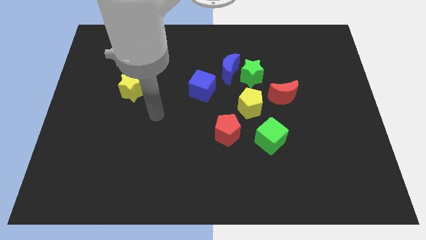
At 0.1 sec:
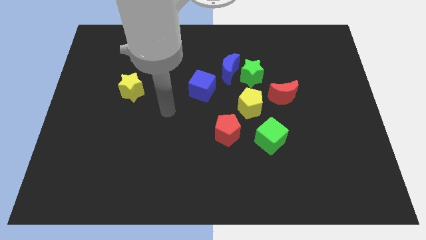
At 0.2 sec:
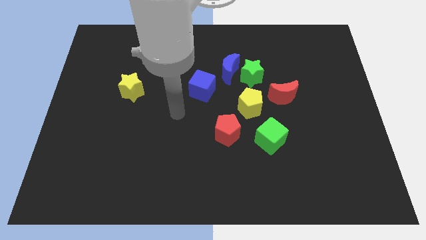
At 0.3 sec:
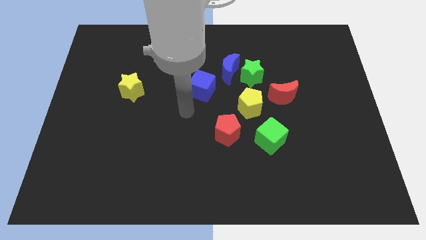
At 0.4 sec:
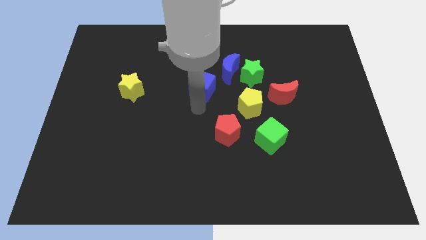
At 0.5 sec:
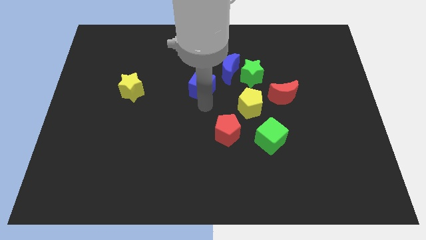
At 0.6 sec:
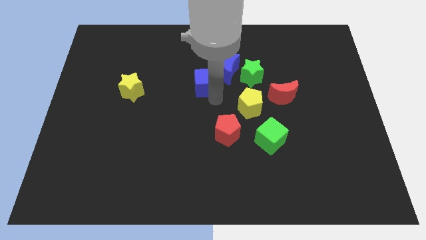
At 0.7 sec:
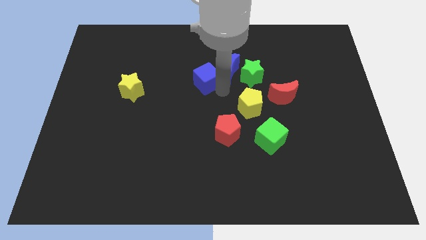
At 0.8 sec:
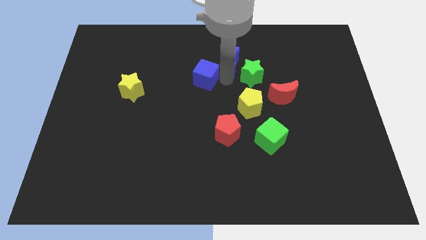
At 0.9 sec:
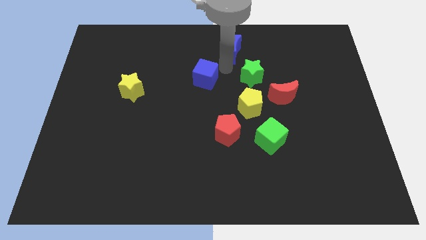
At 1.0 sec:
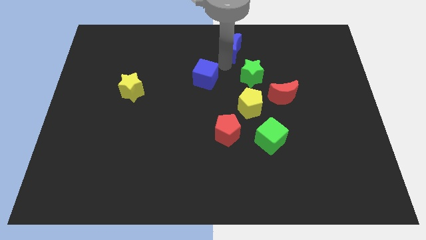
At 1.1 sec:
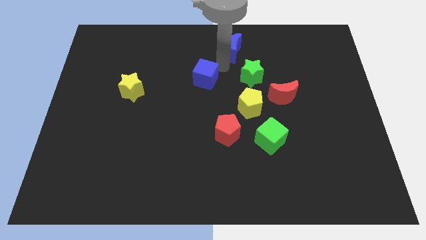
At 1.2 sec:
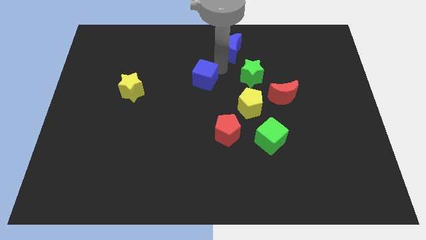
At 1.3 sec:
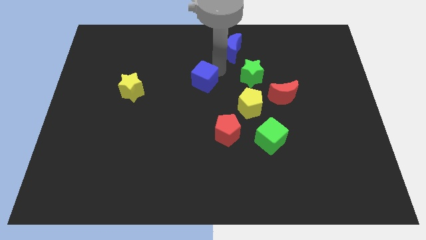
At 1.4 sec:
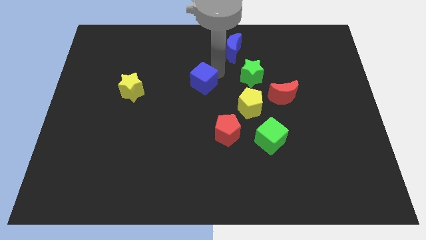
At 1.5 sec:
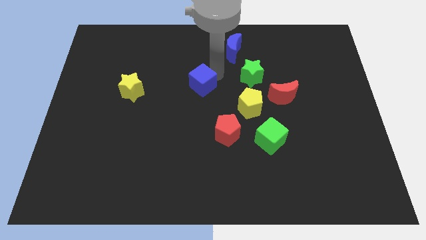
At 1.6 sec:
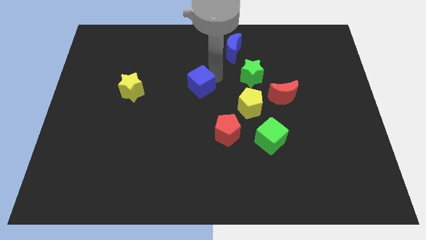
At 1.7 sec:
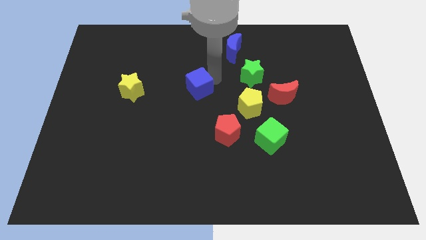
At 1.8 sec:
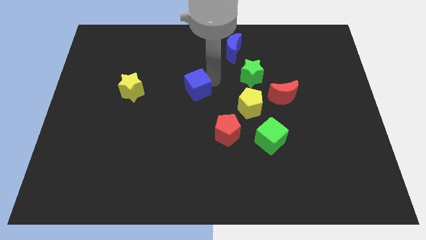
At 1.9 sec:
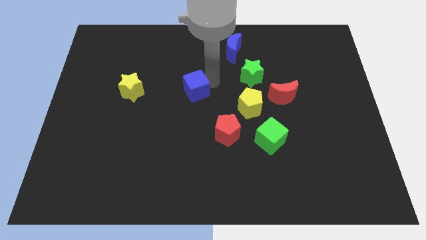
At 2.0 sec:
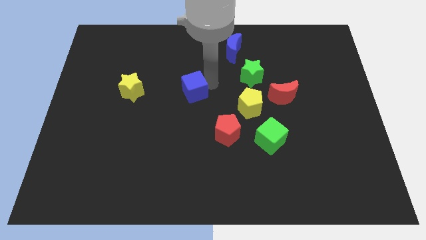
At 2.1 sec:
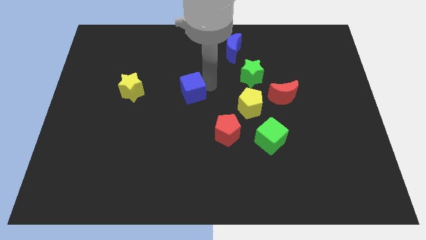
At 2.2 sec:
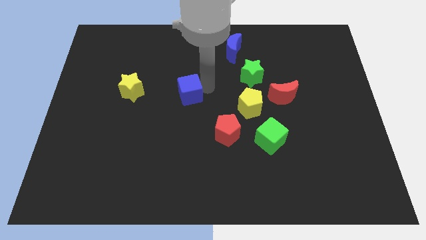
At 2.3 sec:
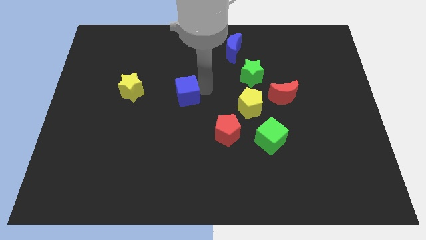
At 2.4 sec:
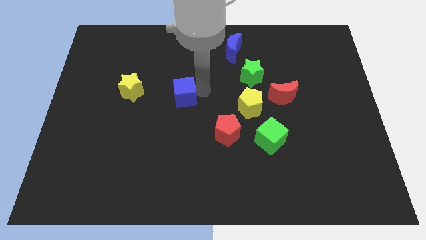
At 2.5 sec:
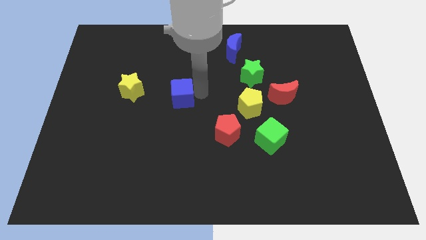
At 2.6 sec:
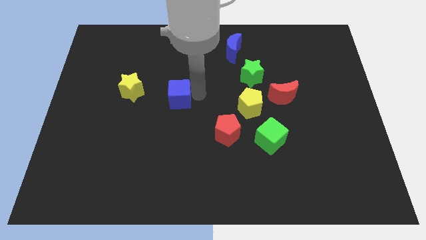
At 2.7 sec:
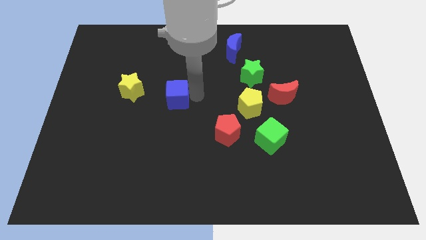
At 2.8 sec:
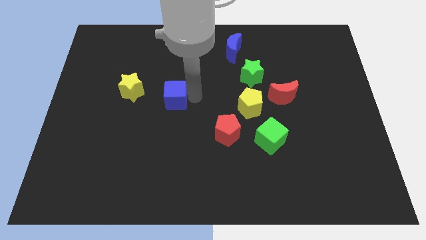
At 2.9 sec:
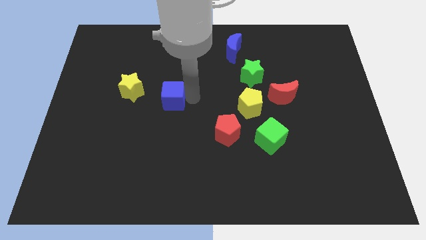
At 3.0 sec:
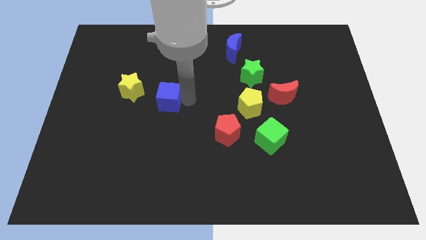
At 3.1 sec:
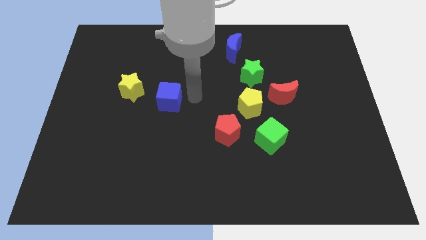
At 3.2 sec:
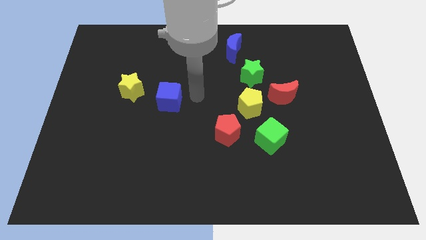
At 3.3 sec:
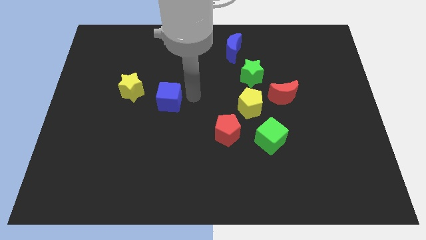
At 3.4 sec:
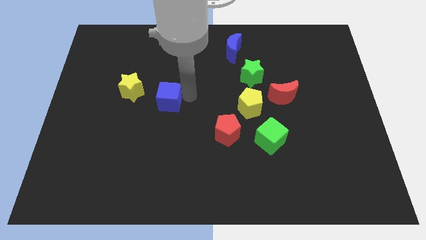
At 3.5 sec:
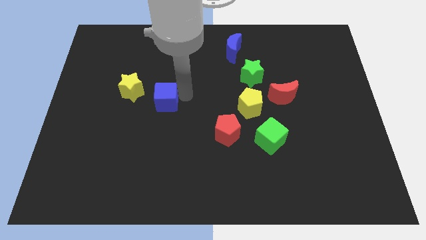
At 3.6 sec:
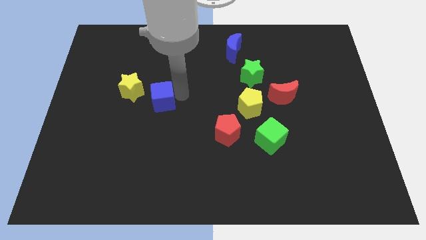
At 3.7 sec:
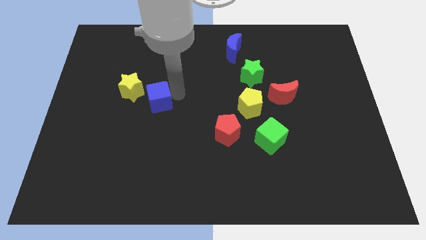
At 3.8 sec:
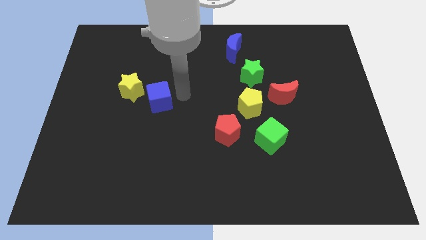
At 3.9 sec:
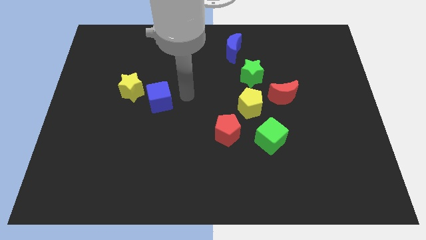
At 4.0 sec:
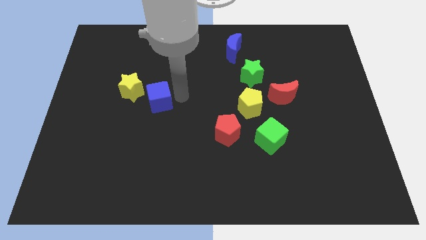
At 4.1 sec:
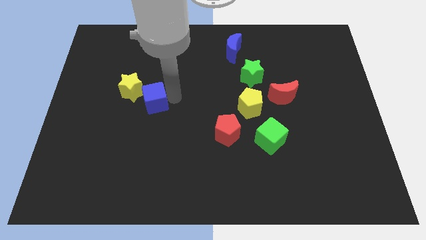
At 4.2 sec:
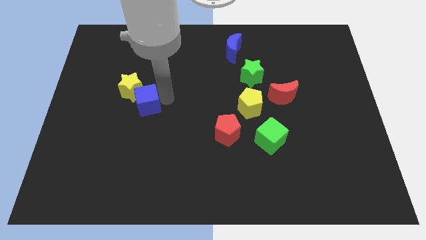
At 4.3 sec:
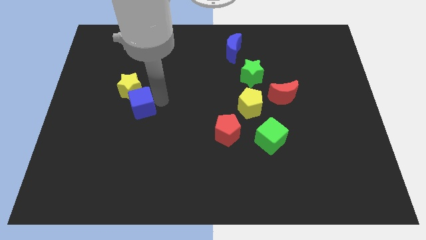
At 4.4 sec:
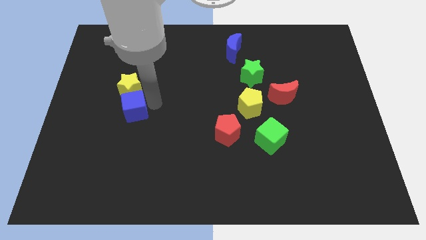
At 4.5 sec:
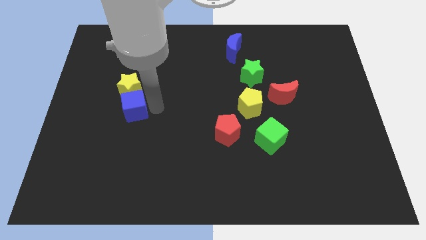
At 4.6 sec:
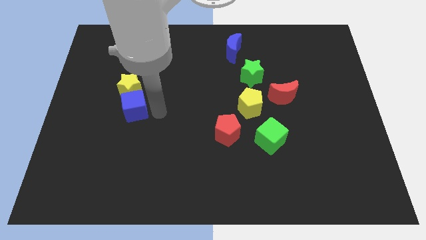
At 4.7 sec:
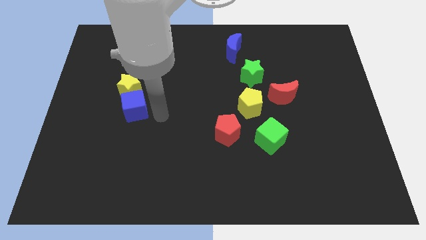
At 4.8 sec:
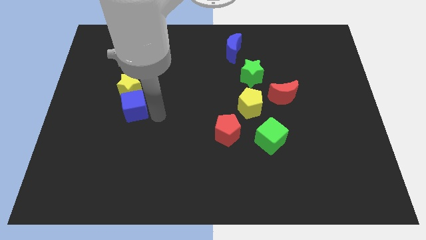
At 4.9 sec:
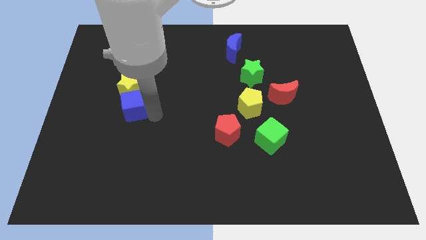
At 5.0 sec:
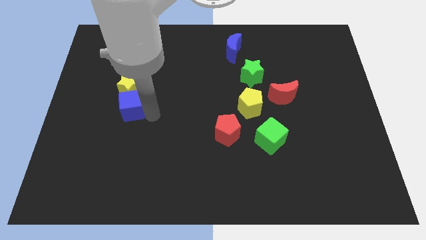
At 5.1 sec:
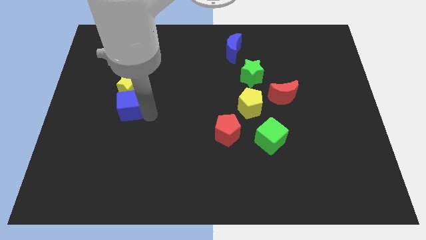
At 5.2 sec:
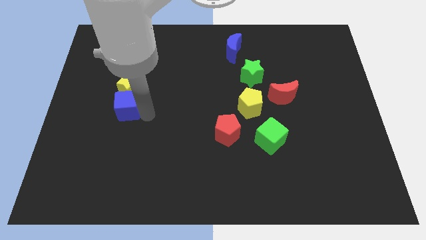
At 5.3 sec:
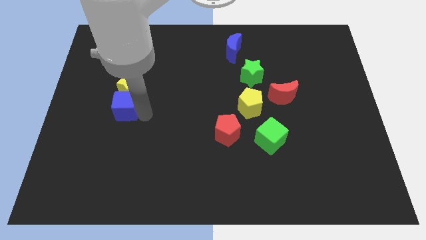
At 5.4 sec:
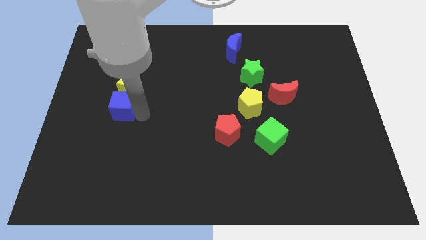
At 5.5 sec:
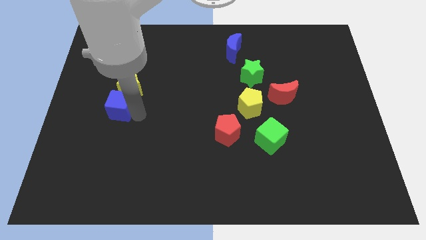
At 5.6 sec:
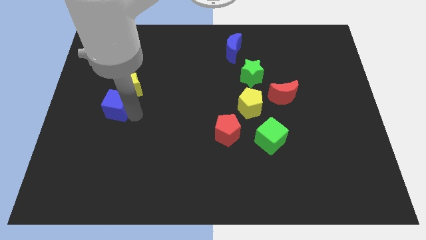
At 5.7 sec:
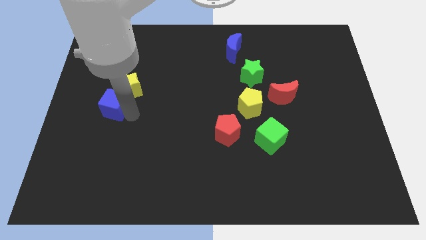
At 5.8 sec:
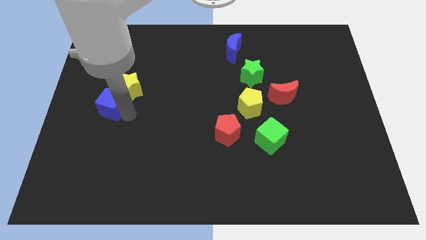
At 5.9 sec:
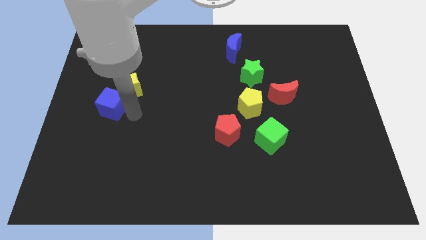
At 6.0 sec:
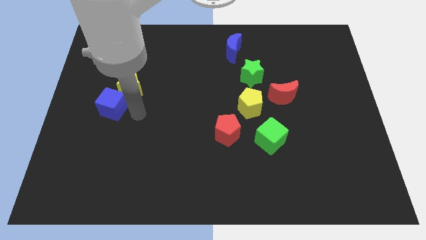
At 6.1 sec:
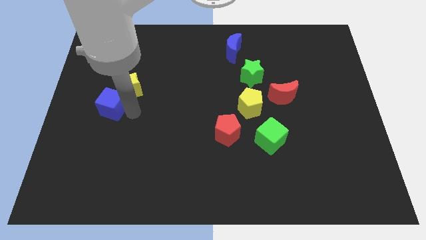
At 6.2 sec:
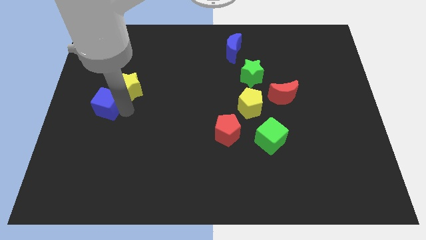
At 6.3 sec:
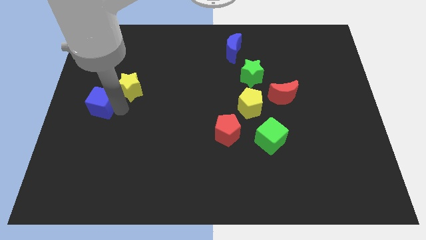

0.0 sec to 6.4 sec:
push the blue cube to the left side of the board

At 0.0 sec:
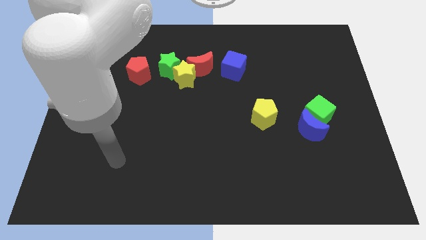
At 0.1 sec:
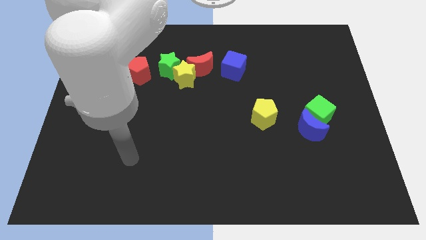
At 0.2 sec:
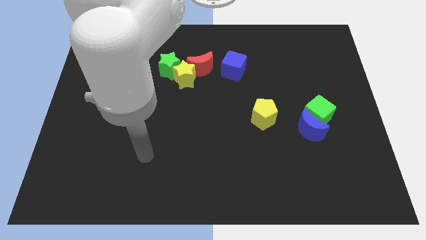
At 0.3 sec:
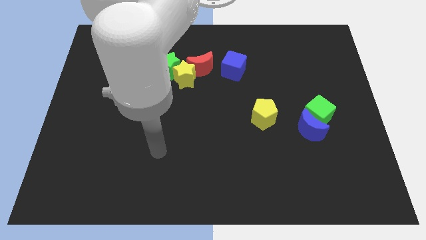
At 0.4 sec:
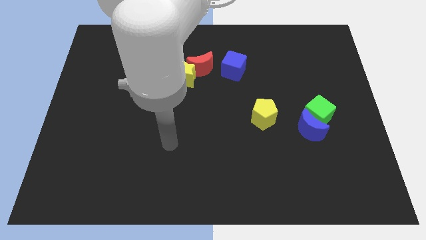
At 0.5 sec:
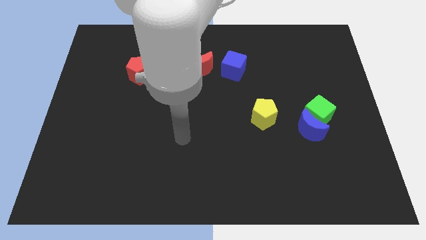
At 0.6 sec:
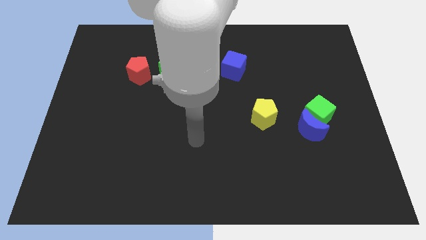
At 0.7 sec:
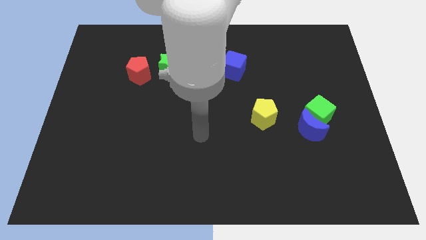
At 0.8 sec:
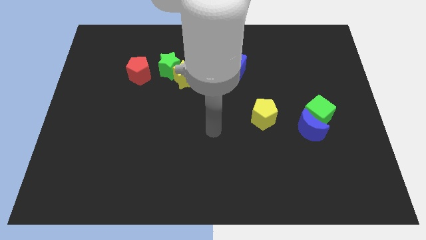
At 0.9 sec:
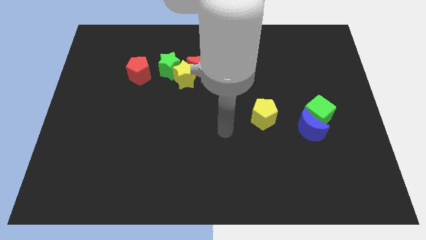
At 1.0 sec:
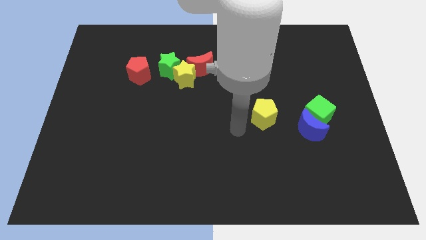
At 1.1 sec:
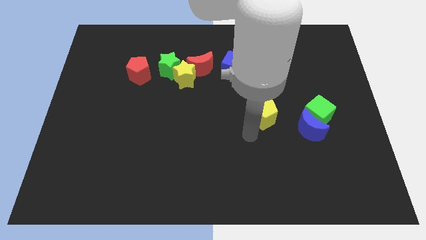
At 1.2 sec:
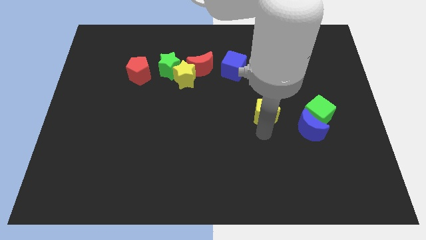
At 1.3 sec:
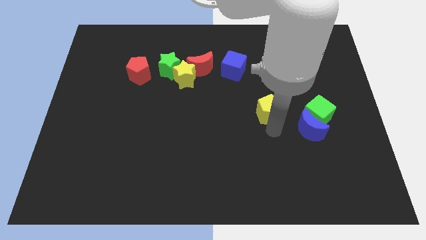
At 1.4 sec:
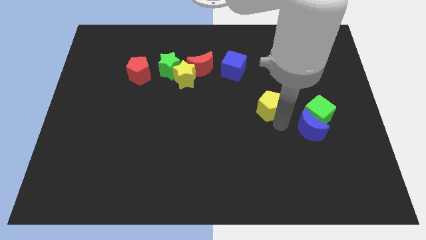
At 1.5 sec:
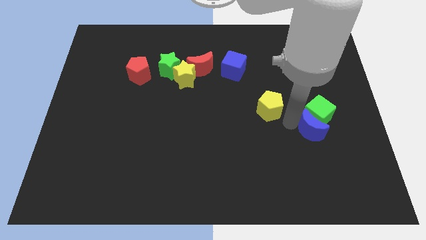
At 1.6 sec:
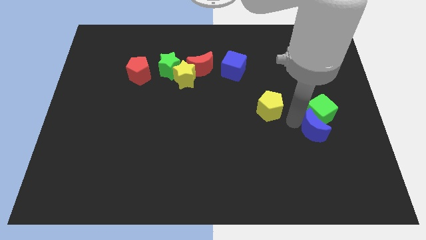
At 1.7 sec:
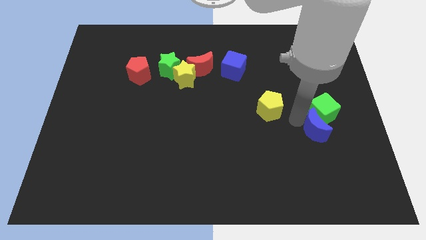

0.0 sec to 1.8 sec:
move the green cube to the center right
